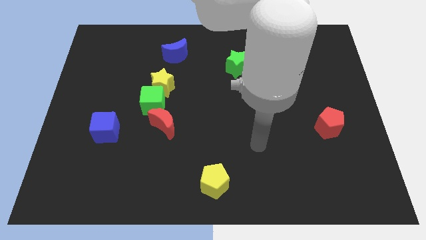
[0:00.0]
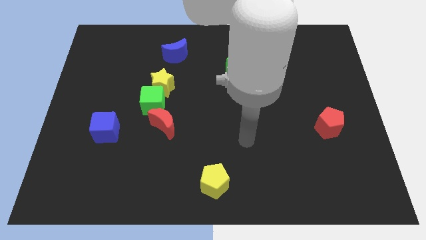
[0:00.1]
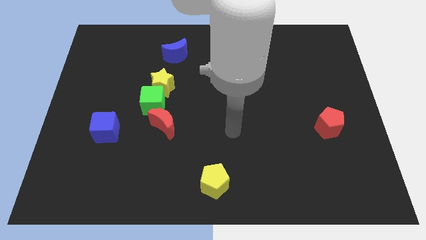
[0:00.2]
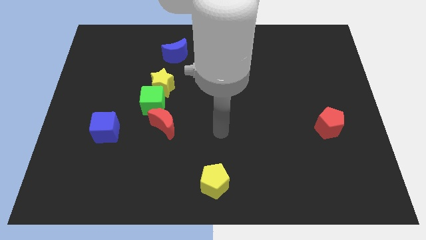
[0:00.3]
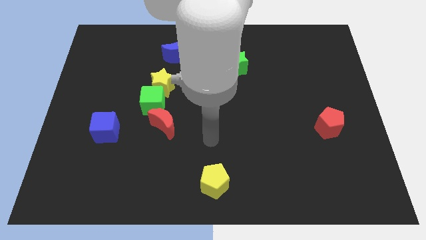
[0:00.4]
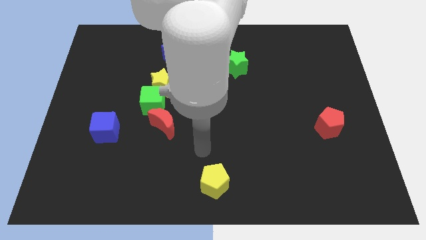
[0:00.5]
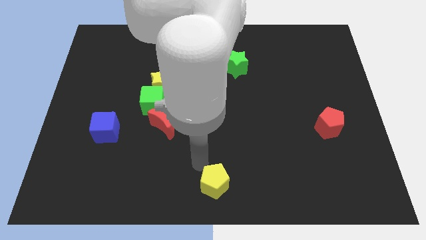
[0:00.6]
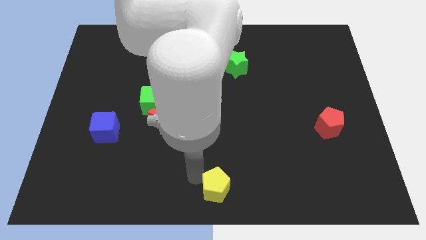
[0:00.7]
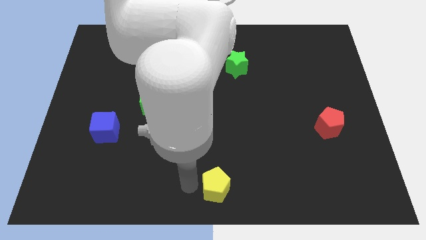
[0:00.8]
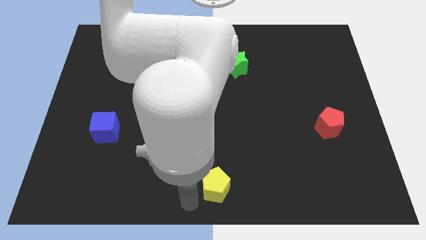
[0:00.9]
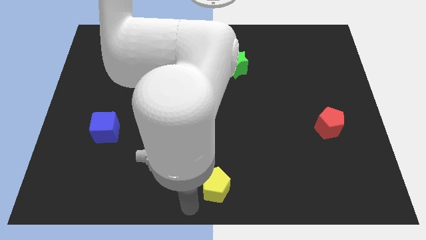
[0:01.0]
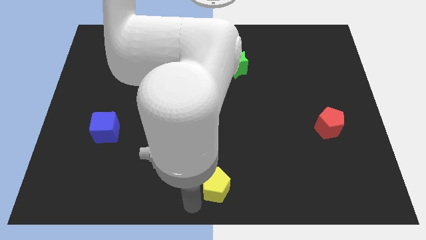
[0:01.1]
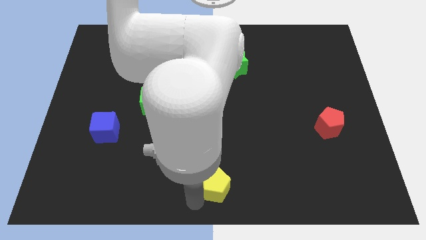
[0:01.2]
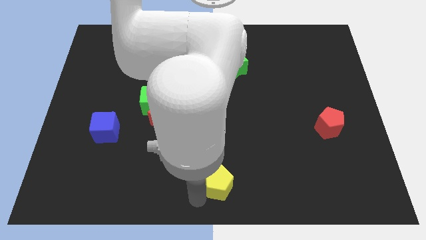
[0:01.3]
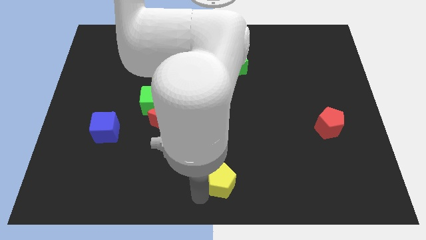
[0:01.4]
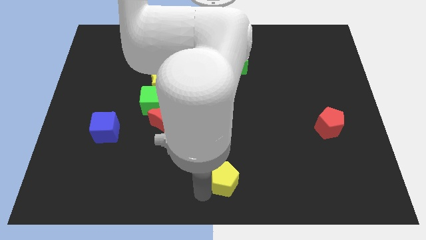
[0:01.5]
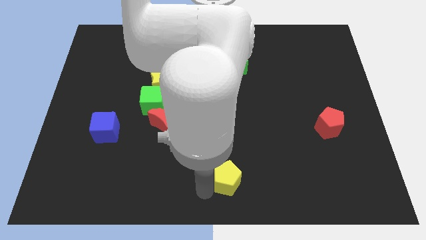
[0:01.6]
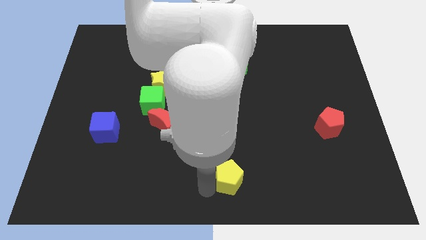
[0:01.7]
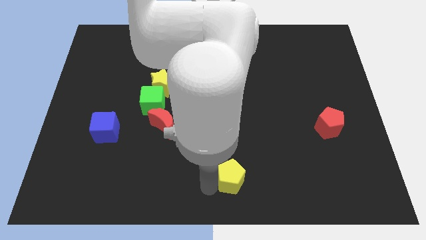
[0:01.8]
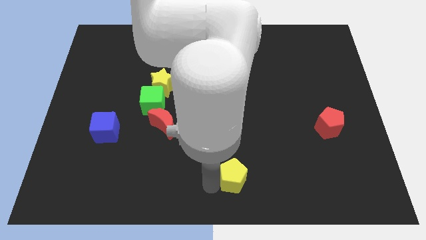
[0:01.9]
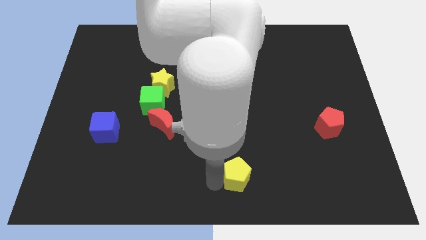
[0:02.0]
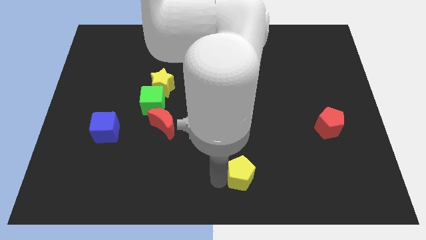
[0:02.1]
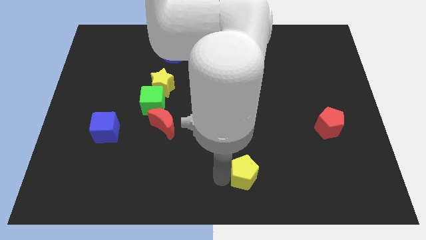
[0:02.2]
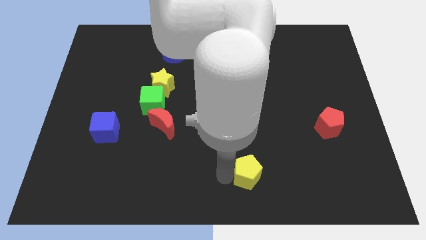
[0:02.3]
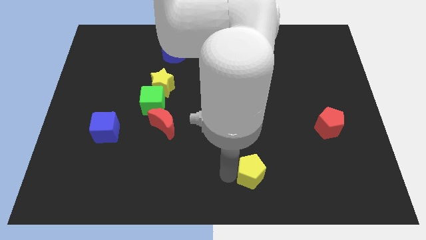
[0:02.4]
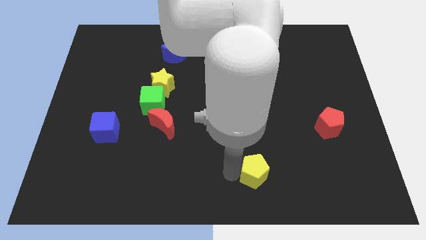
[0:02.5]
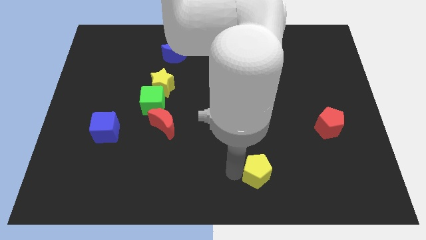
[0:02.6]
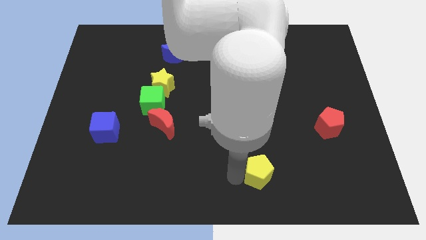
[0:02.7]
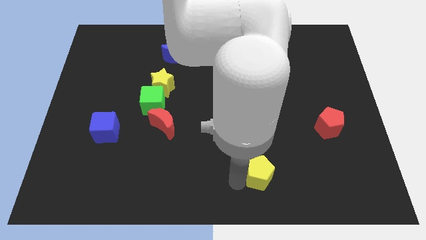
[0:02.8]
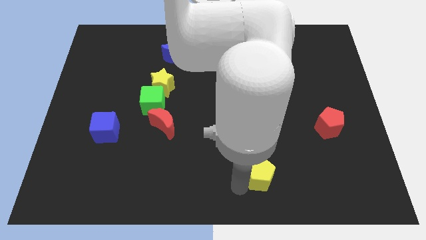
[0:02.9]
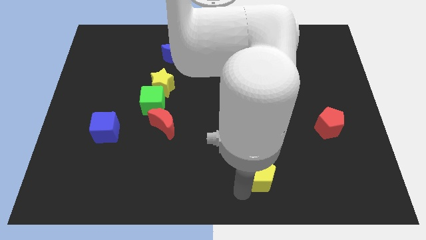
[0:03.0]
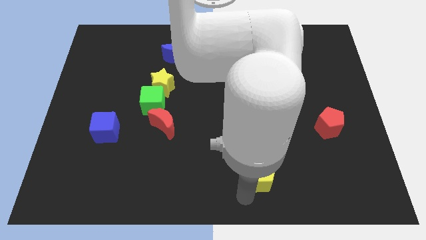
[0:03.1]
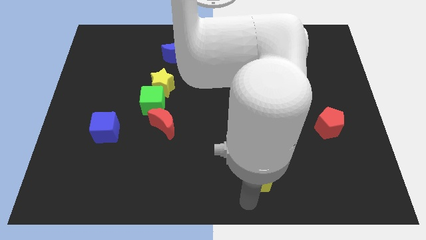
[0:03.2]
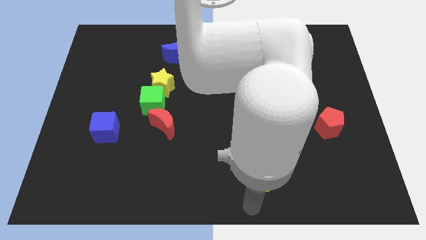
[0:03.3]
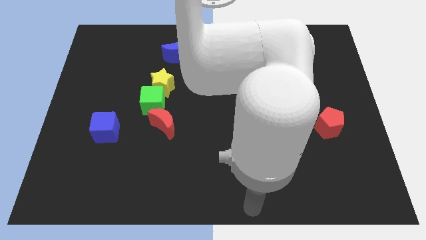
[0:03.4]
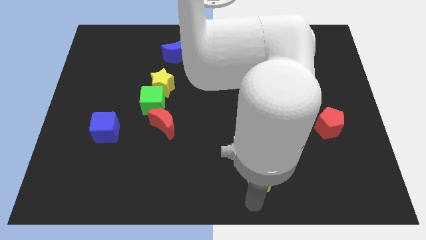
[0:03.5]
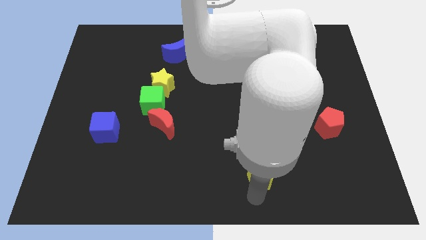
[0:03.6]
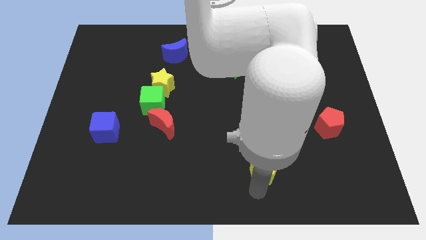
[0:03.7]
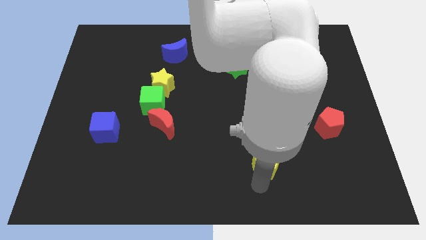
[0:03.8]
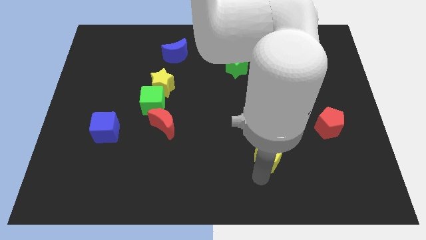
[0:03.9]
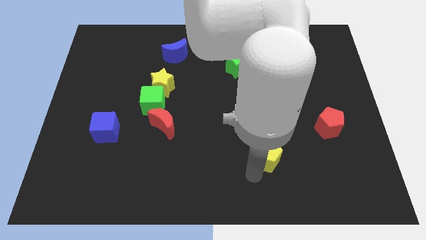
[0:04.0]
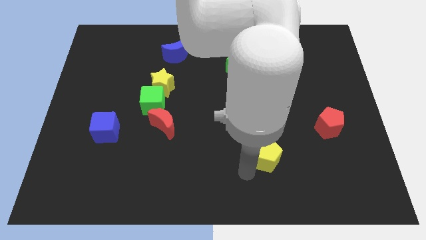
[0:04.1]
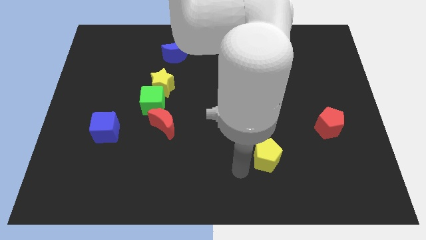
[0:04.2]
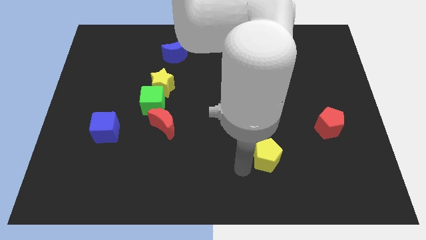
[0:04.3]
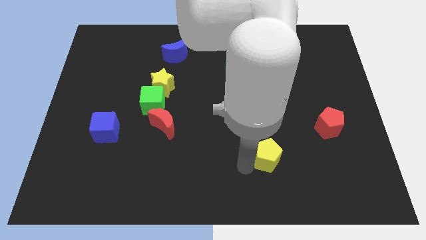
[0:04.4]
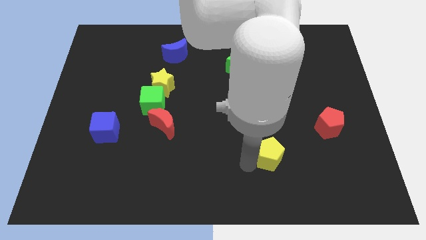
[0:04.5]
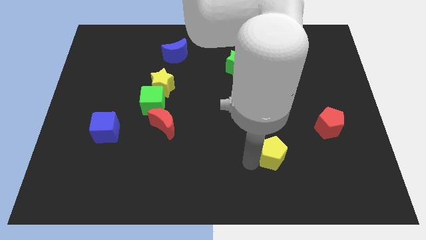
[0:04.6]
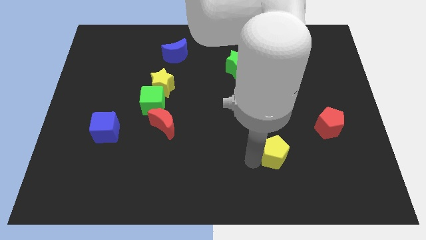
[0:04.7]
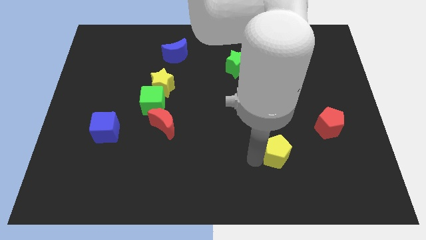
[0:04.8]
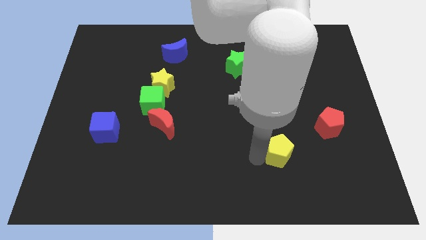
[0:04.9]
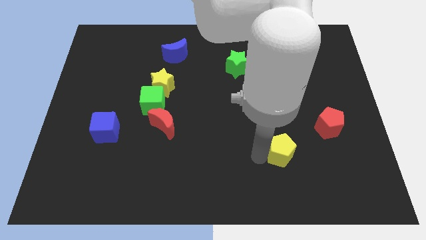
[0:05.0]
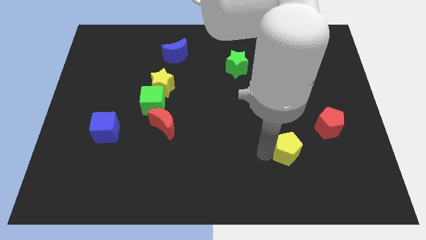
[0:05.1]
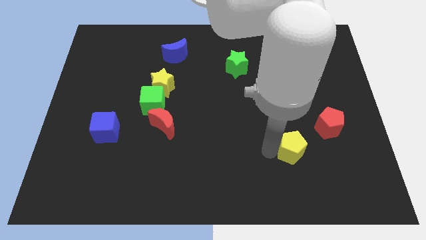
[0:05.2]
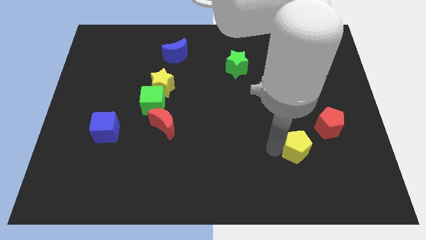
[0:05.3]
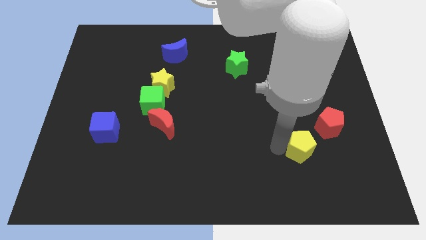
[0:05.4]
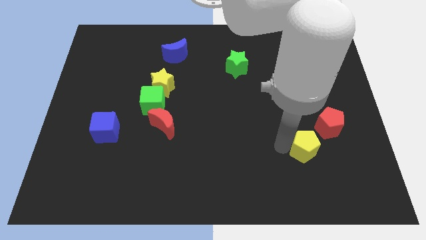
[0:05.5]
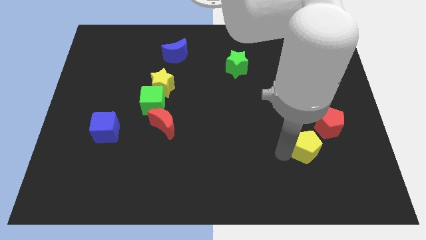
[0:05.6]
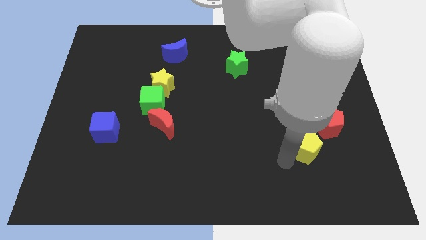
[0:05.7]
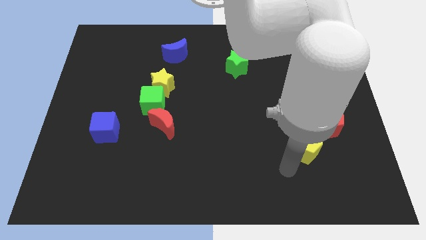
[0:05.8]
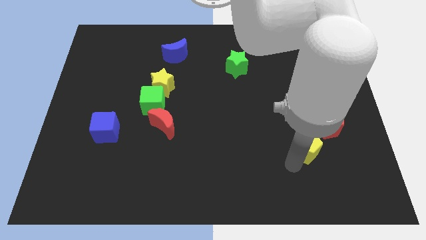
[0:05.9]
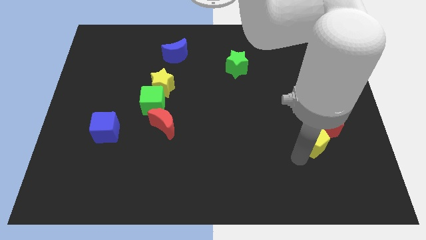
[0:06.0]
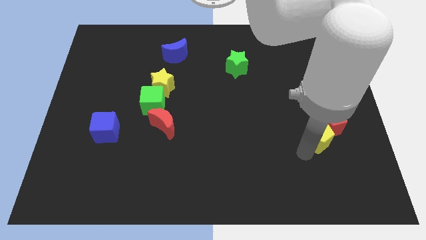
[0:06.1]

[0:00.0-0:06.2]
move the yellow pentagon to the red pentagon

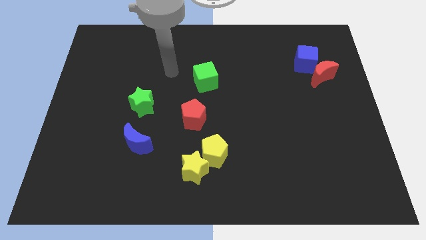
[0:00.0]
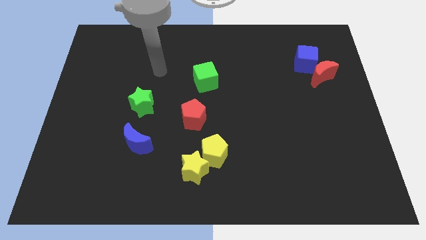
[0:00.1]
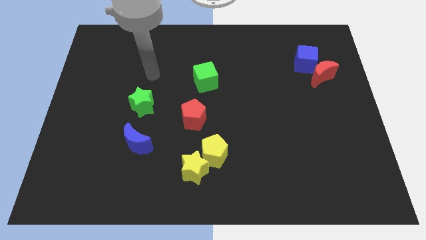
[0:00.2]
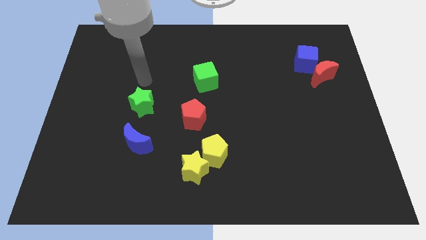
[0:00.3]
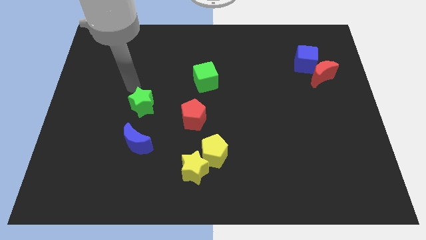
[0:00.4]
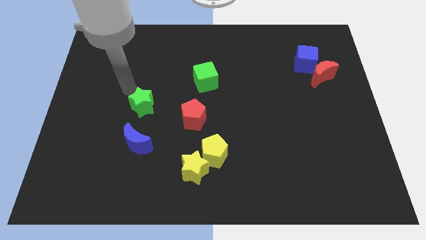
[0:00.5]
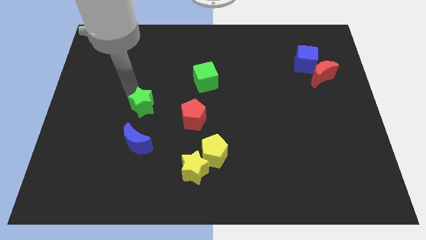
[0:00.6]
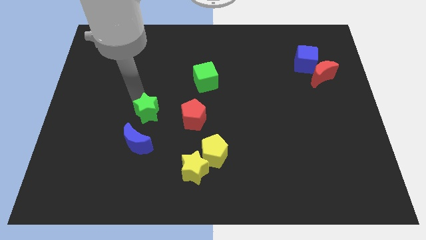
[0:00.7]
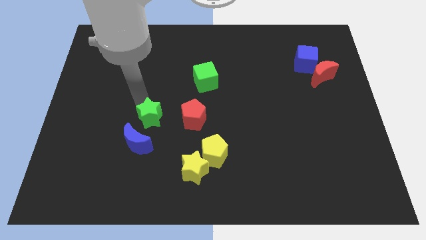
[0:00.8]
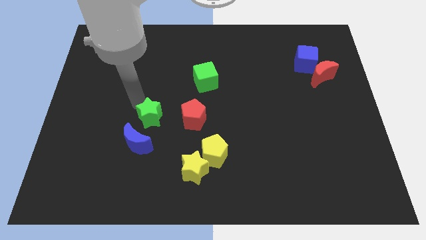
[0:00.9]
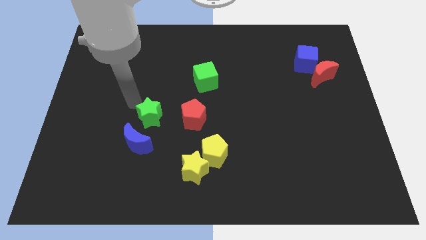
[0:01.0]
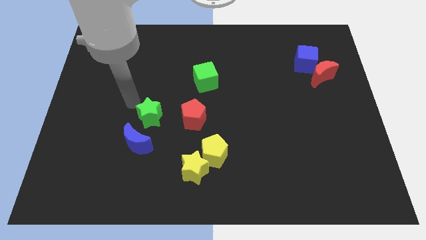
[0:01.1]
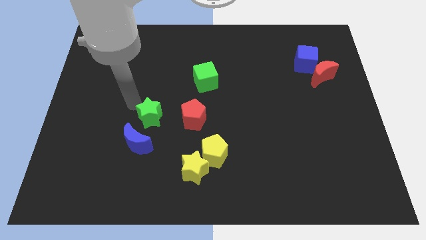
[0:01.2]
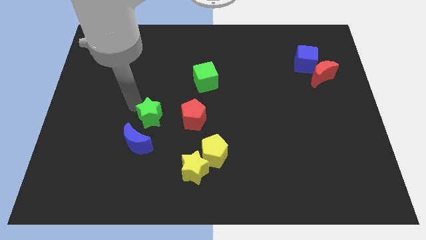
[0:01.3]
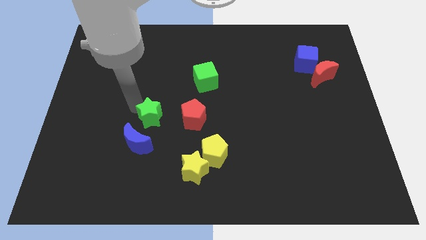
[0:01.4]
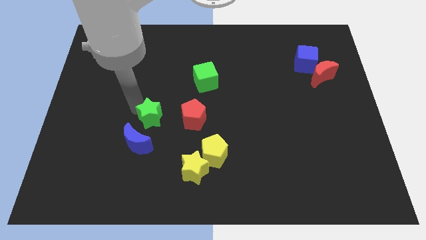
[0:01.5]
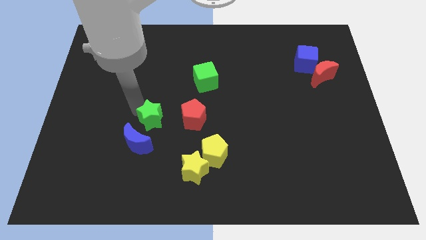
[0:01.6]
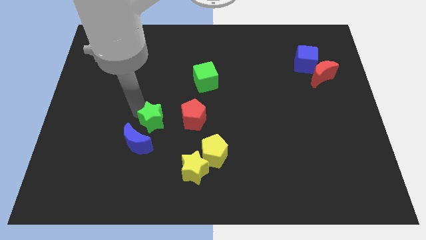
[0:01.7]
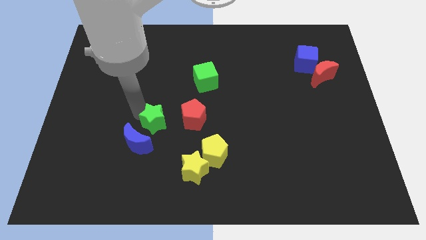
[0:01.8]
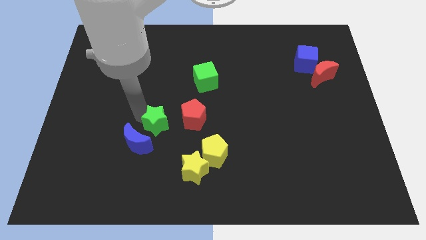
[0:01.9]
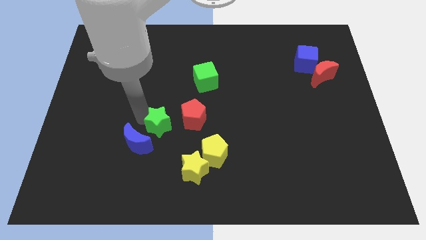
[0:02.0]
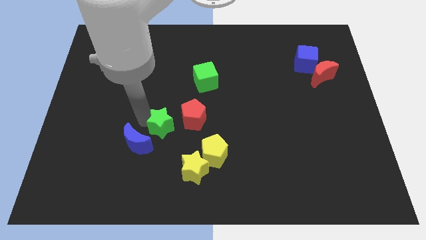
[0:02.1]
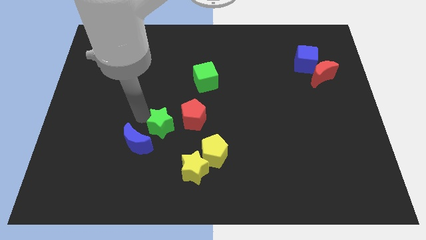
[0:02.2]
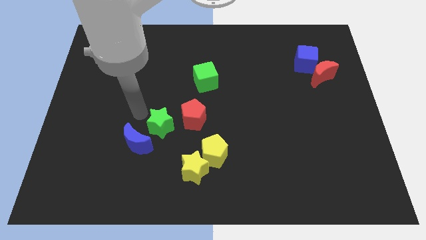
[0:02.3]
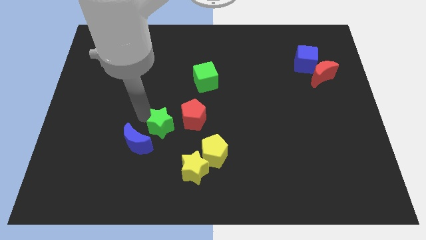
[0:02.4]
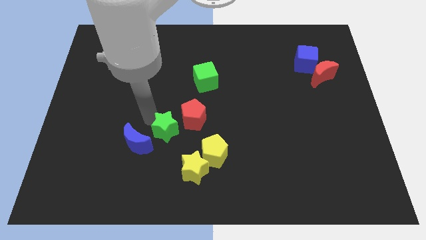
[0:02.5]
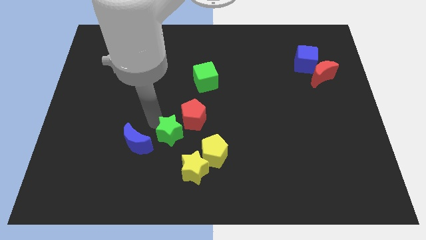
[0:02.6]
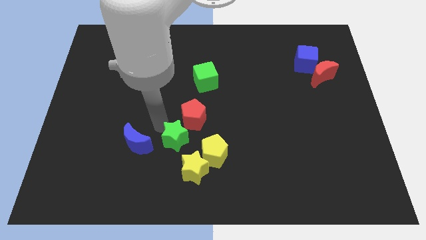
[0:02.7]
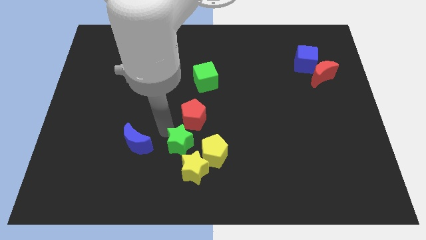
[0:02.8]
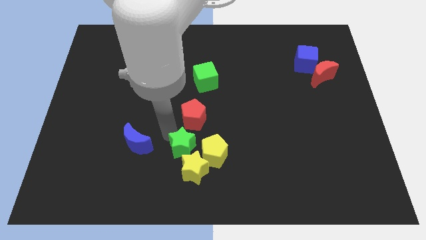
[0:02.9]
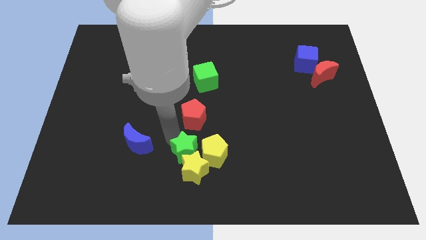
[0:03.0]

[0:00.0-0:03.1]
move the green star next to the yellow pentagon
